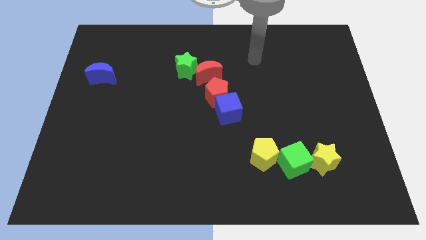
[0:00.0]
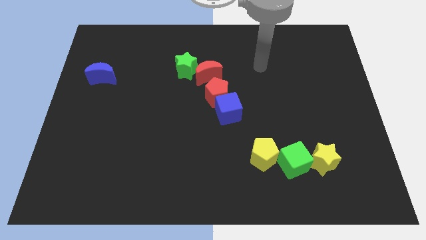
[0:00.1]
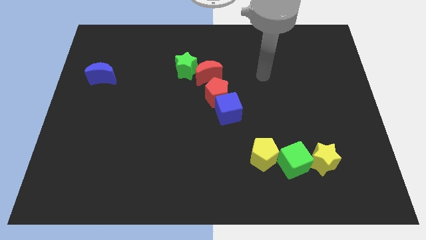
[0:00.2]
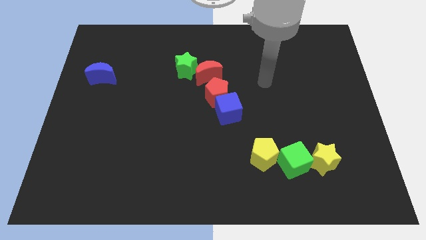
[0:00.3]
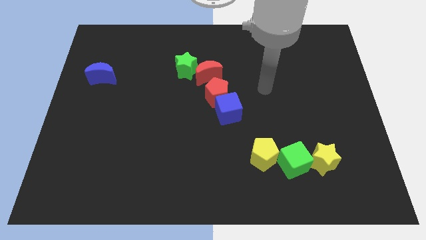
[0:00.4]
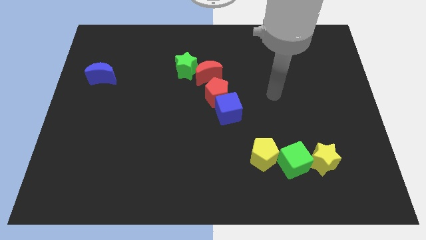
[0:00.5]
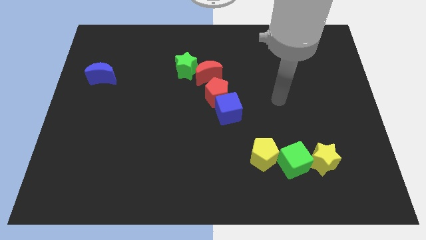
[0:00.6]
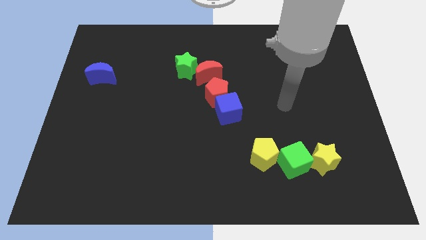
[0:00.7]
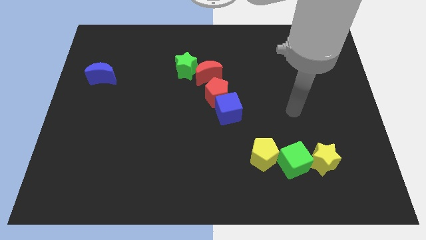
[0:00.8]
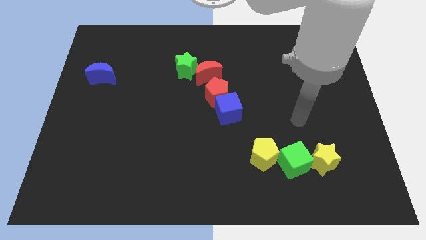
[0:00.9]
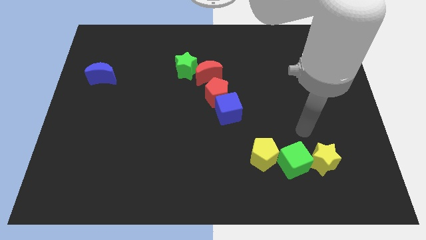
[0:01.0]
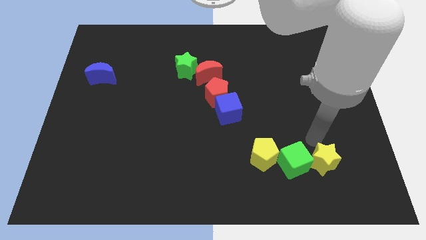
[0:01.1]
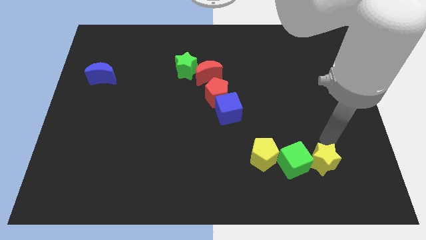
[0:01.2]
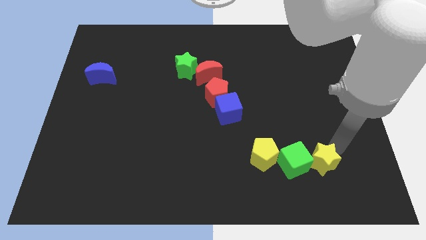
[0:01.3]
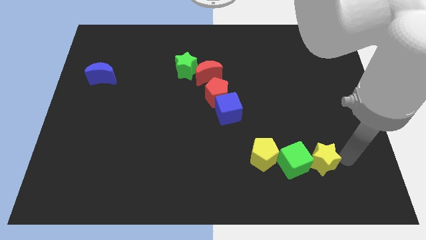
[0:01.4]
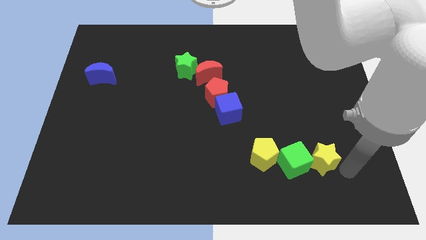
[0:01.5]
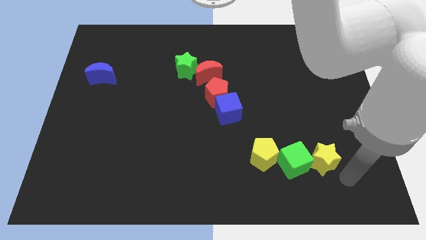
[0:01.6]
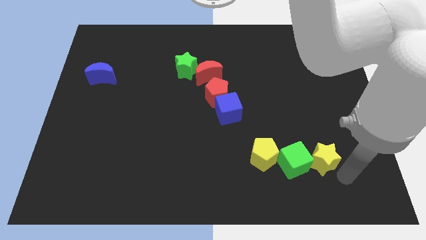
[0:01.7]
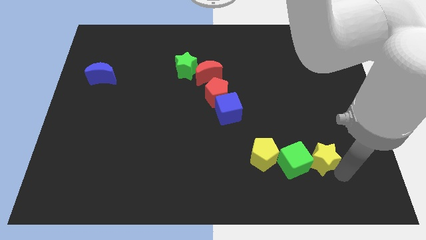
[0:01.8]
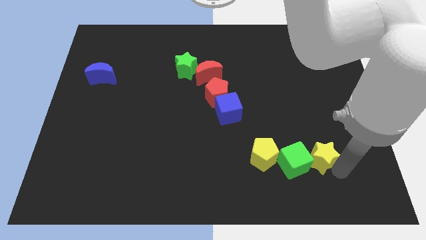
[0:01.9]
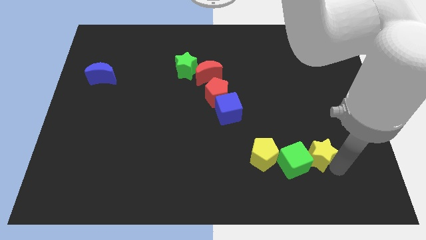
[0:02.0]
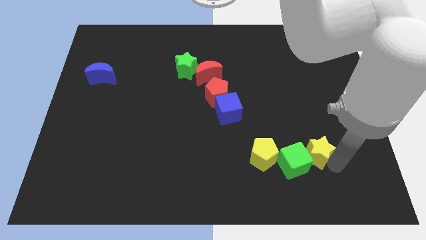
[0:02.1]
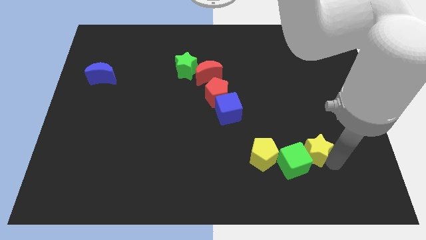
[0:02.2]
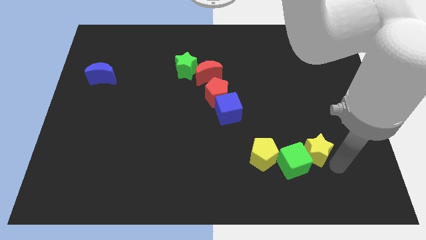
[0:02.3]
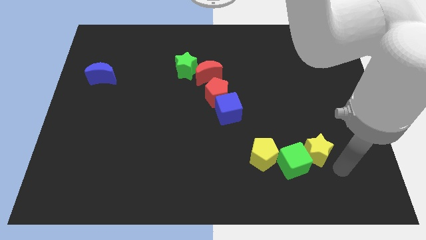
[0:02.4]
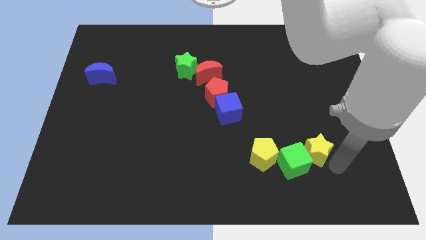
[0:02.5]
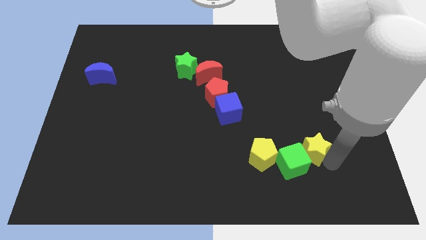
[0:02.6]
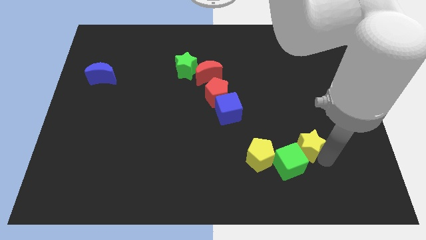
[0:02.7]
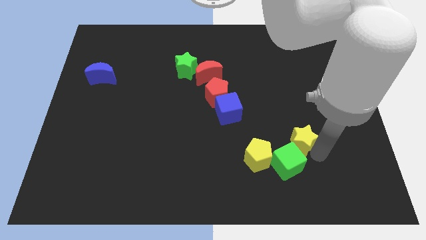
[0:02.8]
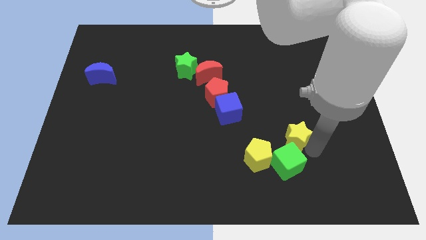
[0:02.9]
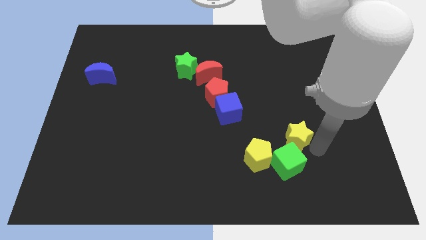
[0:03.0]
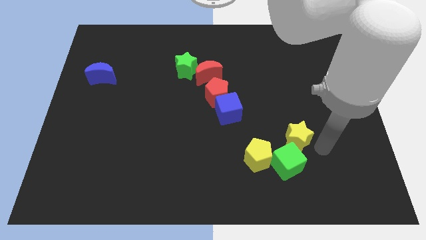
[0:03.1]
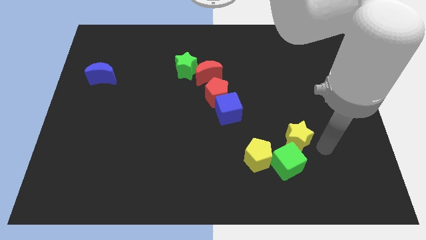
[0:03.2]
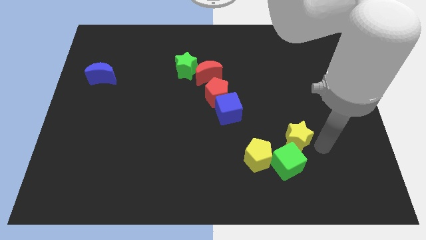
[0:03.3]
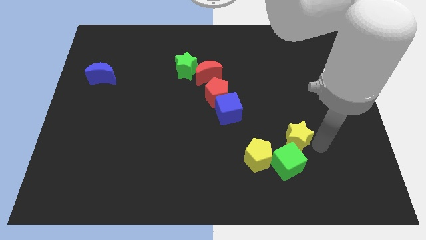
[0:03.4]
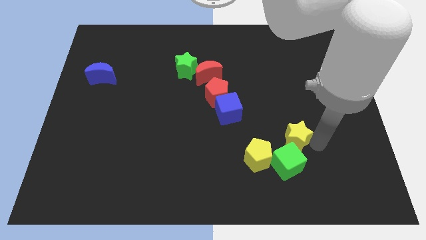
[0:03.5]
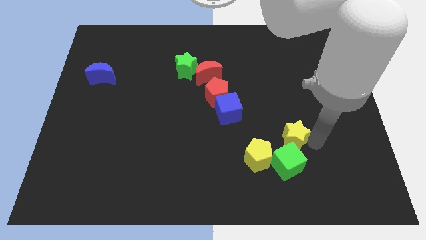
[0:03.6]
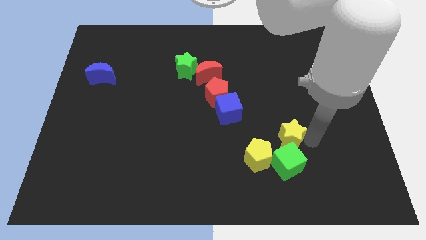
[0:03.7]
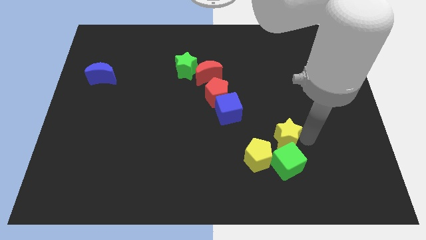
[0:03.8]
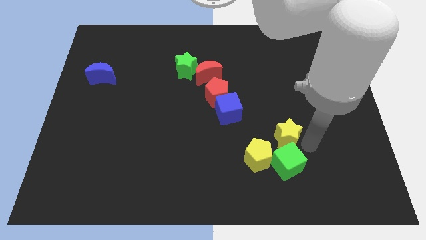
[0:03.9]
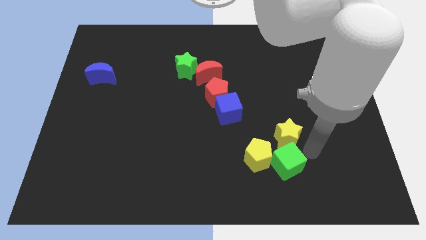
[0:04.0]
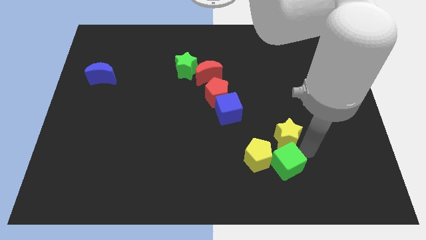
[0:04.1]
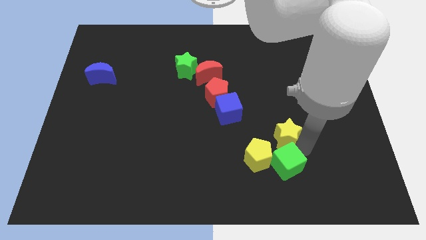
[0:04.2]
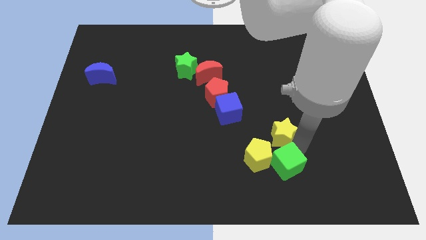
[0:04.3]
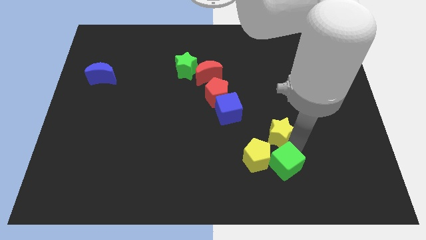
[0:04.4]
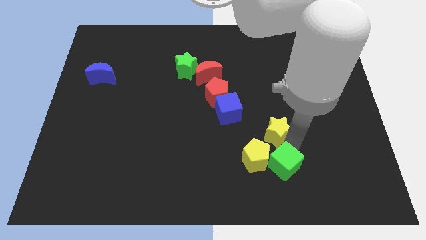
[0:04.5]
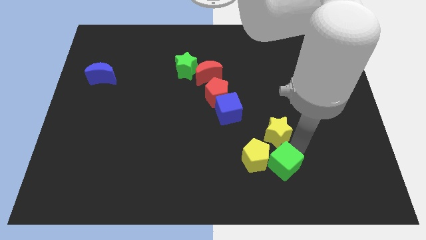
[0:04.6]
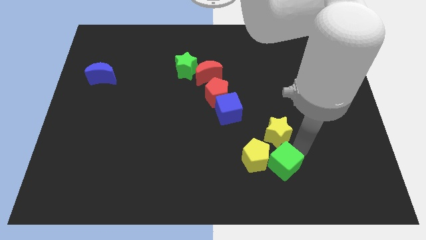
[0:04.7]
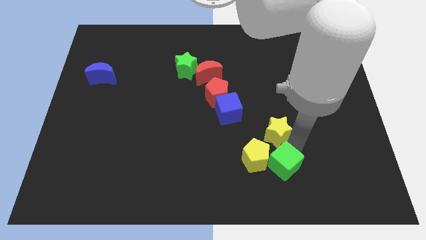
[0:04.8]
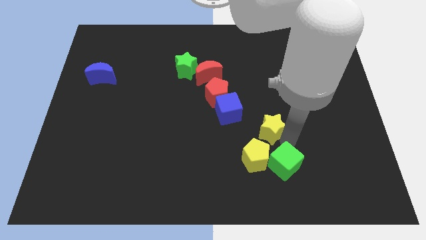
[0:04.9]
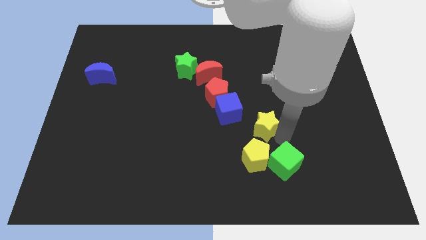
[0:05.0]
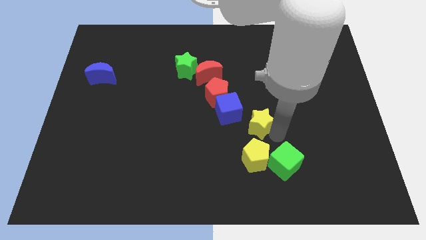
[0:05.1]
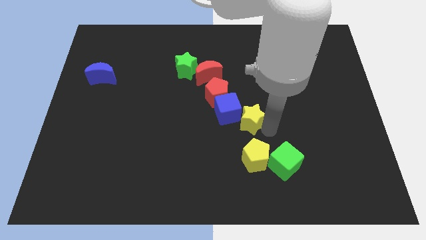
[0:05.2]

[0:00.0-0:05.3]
move the yellow star towards the blue cube

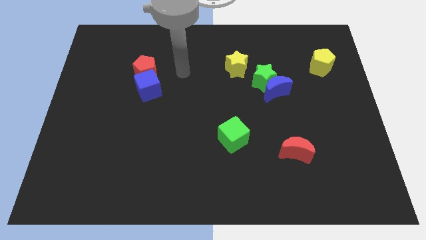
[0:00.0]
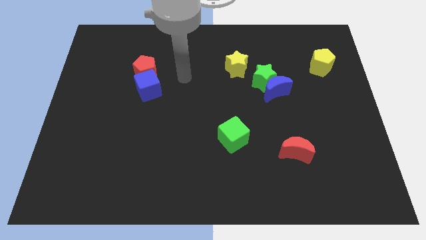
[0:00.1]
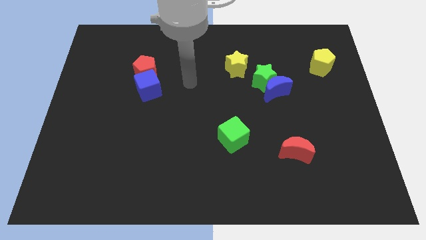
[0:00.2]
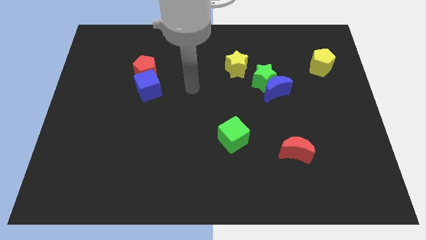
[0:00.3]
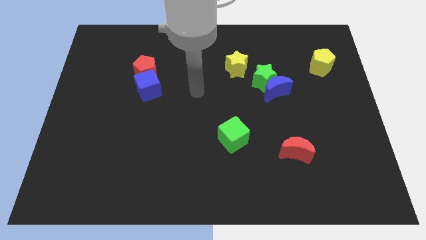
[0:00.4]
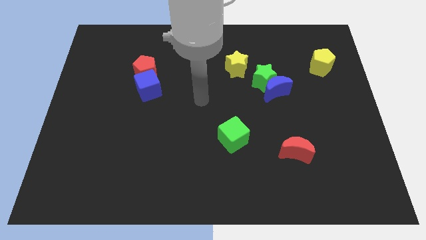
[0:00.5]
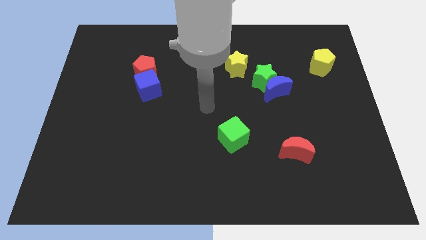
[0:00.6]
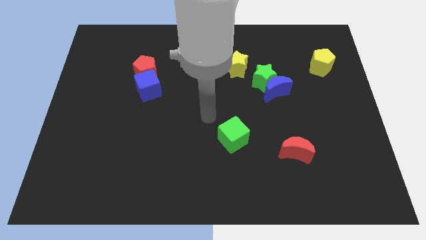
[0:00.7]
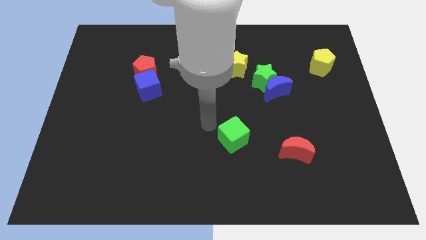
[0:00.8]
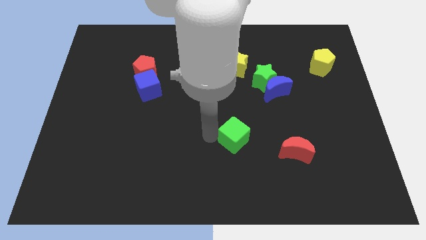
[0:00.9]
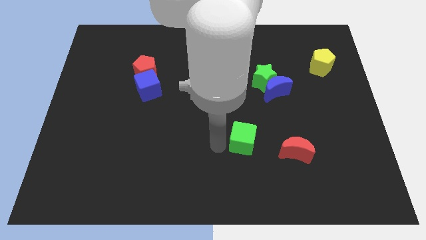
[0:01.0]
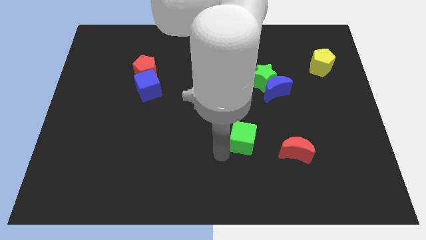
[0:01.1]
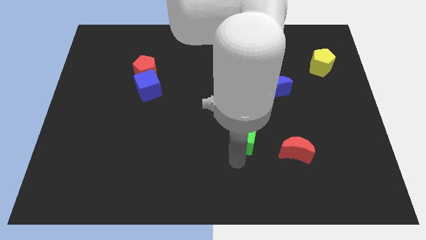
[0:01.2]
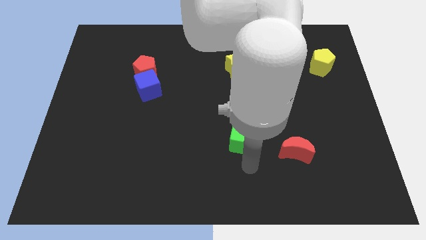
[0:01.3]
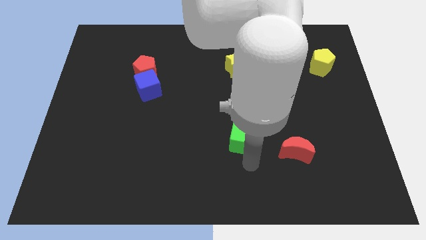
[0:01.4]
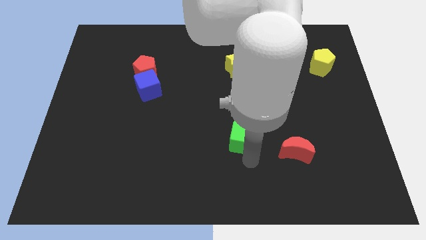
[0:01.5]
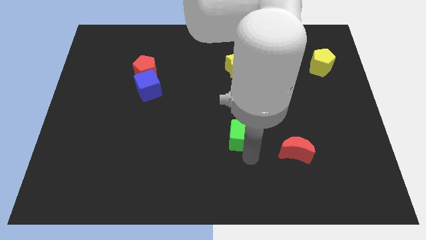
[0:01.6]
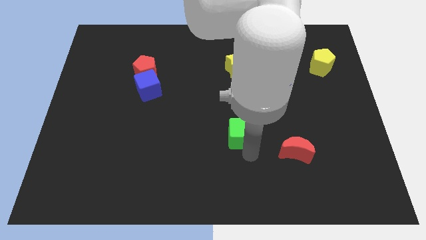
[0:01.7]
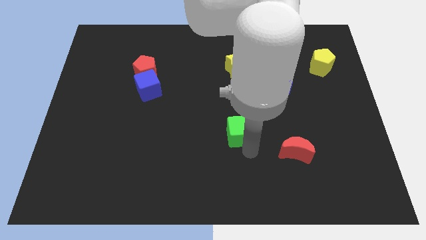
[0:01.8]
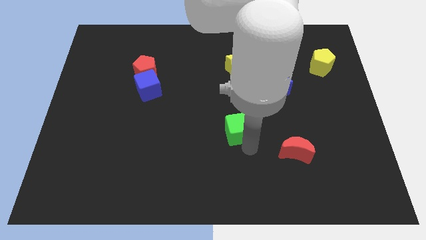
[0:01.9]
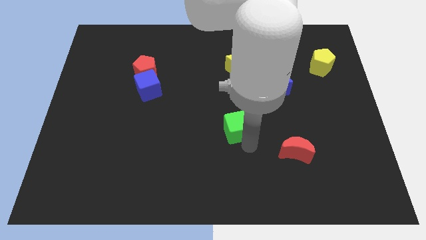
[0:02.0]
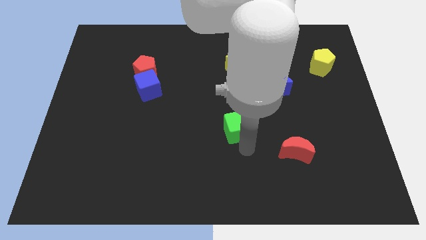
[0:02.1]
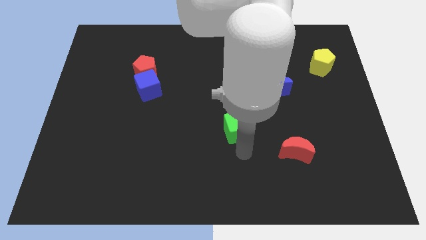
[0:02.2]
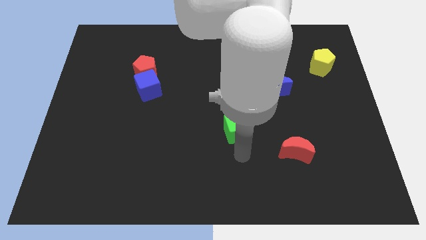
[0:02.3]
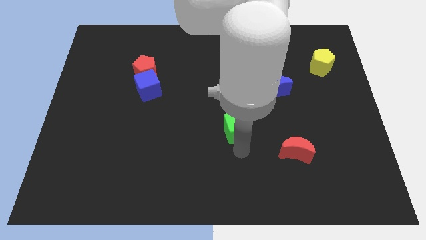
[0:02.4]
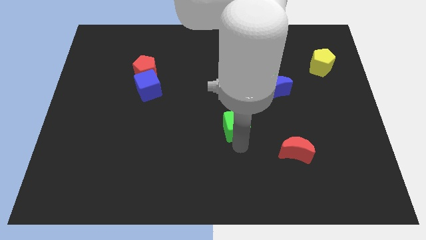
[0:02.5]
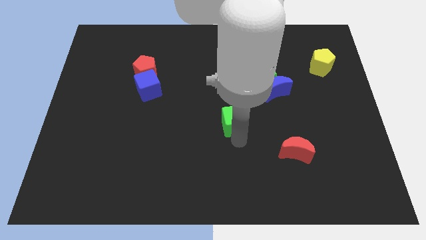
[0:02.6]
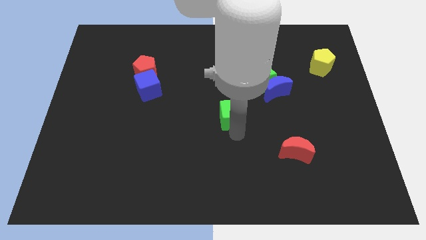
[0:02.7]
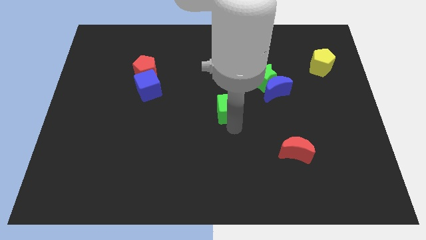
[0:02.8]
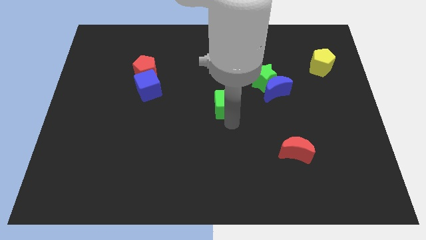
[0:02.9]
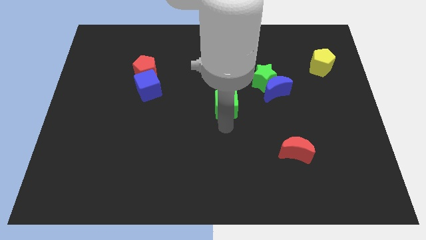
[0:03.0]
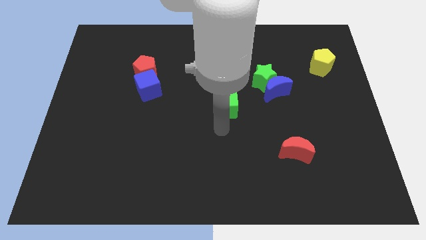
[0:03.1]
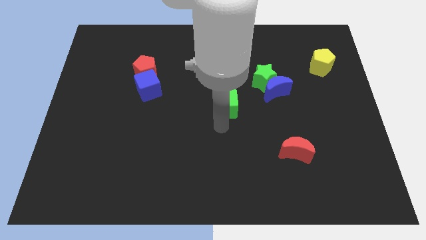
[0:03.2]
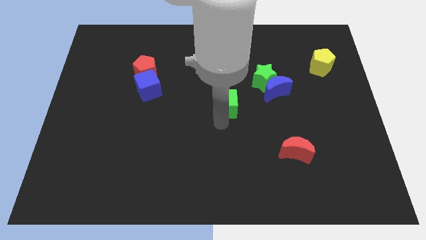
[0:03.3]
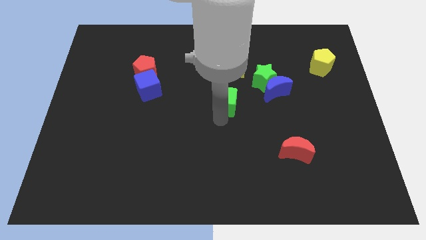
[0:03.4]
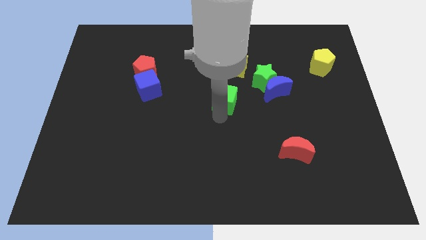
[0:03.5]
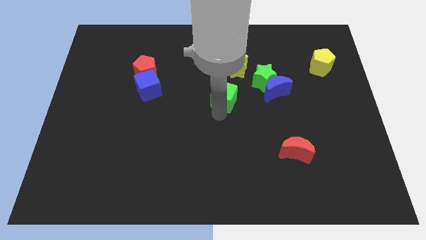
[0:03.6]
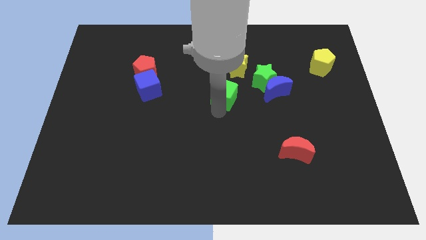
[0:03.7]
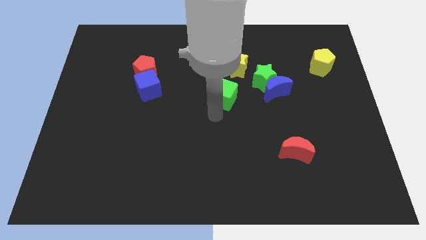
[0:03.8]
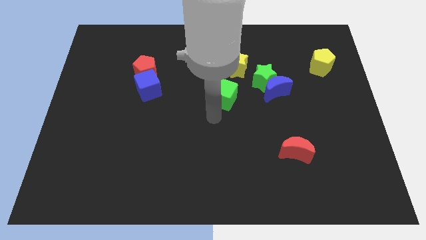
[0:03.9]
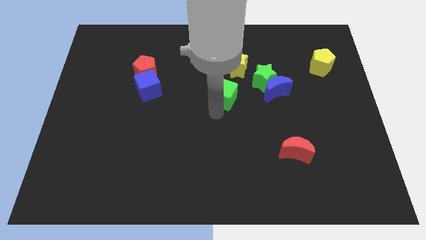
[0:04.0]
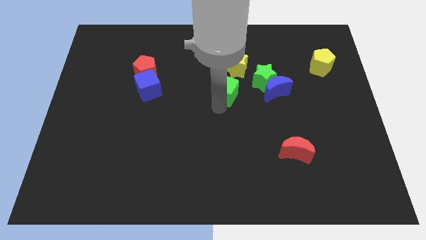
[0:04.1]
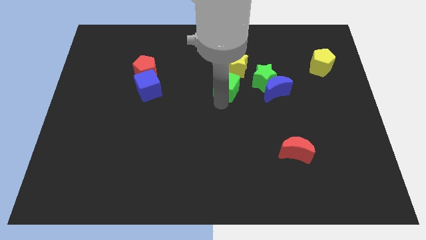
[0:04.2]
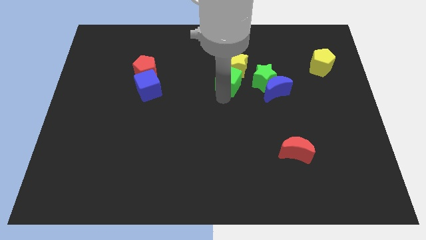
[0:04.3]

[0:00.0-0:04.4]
move the green cube to the yellow star
